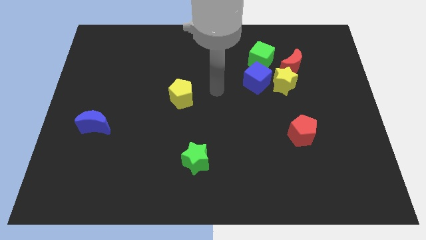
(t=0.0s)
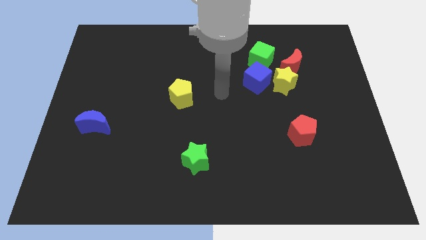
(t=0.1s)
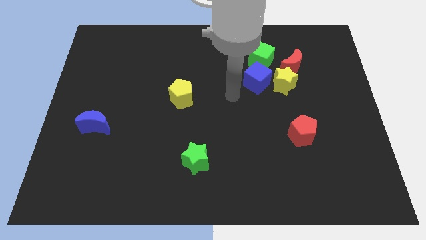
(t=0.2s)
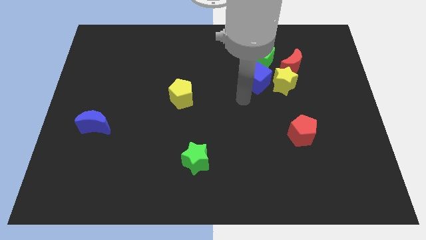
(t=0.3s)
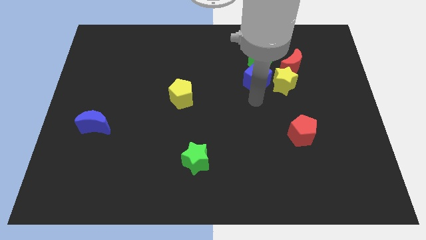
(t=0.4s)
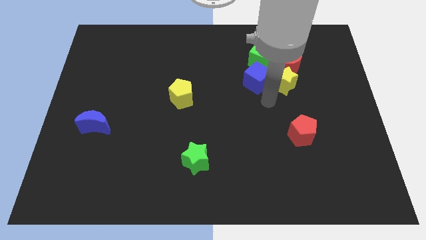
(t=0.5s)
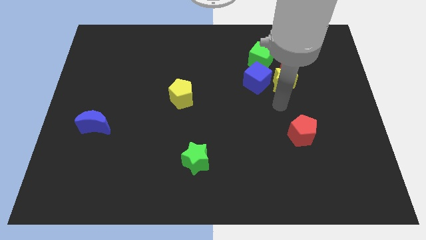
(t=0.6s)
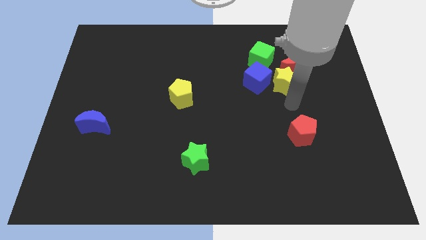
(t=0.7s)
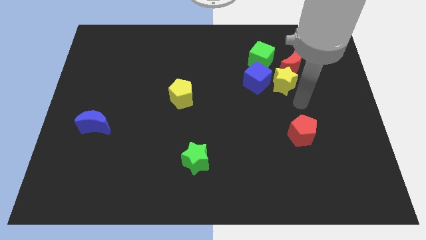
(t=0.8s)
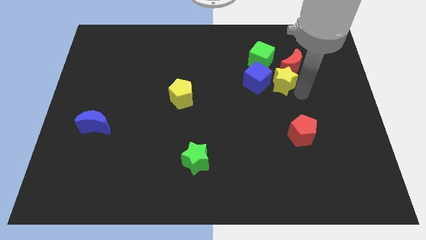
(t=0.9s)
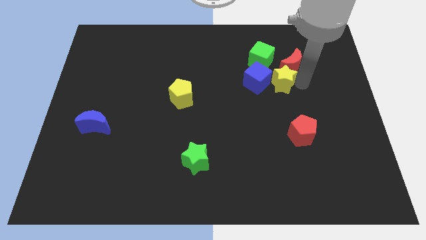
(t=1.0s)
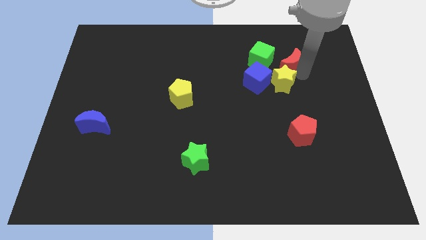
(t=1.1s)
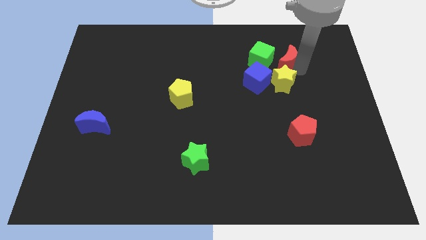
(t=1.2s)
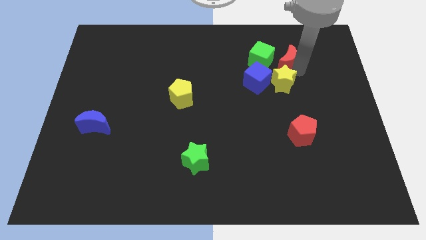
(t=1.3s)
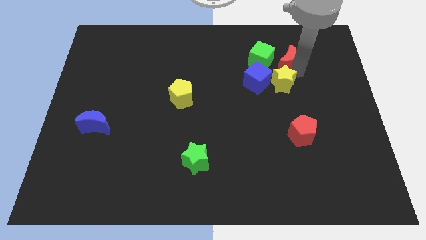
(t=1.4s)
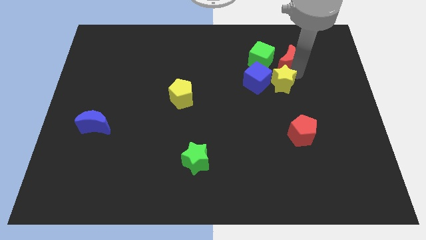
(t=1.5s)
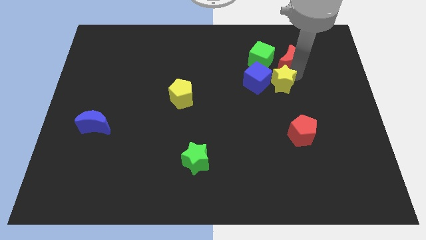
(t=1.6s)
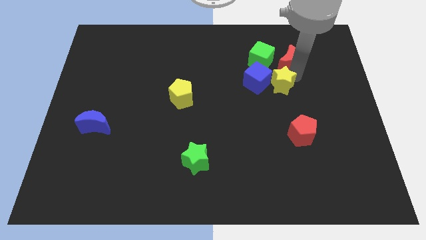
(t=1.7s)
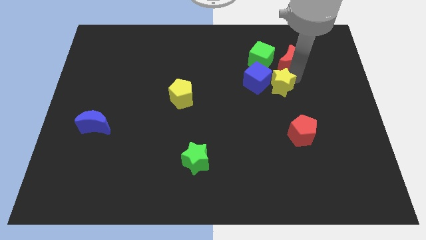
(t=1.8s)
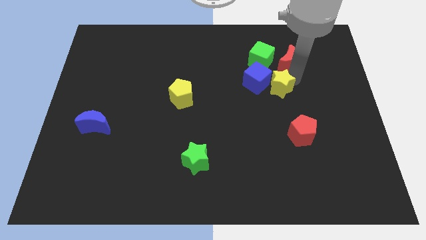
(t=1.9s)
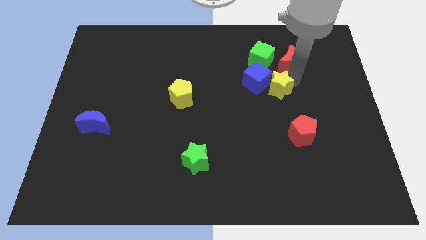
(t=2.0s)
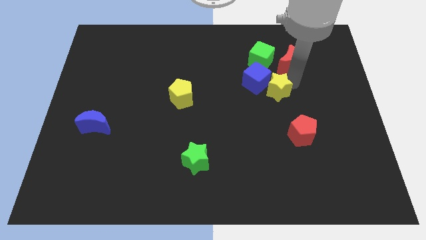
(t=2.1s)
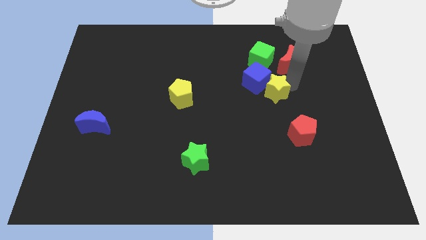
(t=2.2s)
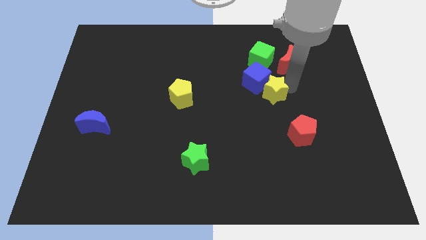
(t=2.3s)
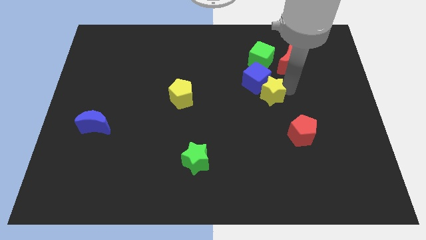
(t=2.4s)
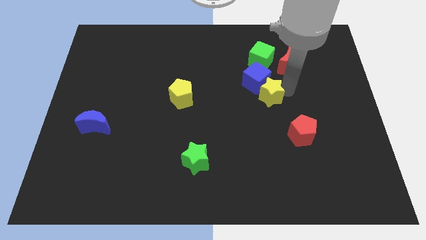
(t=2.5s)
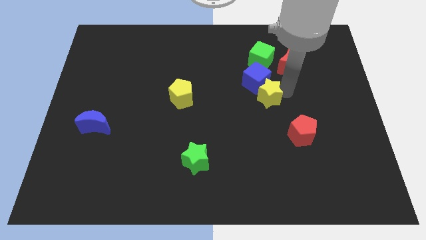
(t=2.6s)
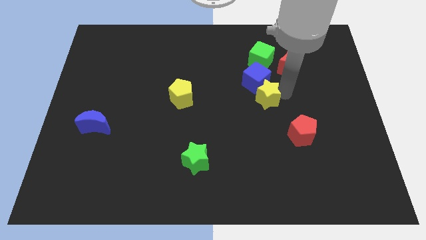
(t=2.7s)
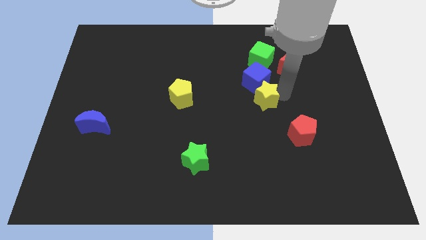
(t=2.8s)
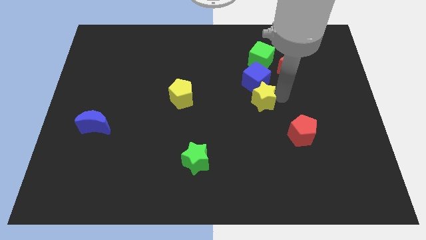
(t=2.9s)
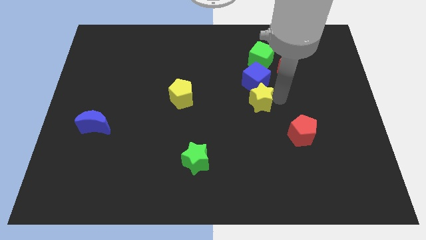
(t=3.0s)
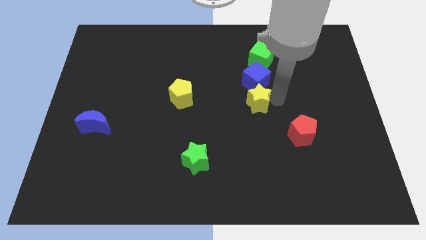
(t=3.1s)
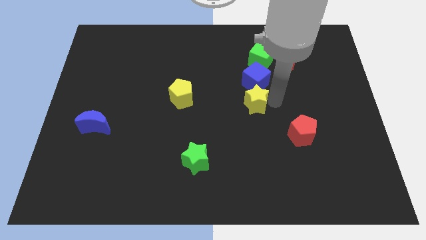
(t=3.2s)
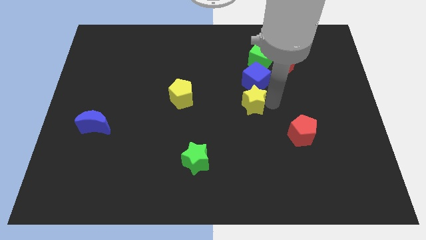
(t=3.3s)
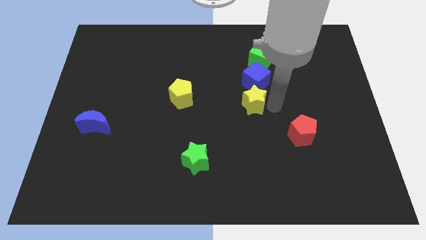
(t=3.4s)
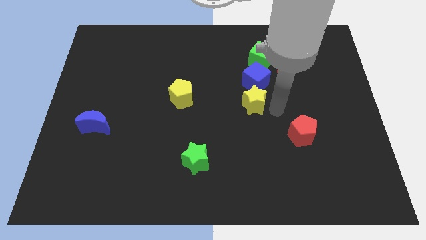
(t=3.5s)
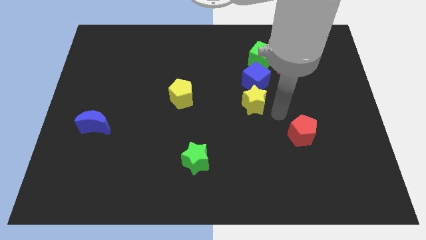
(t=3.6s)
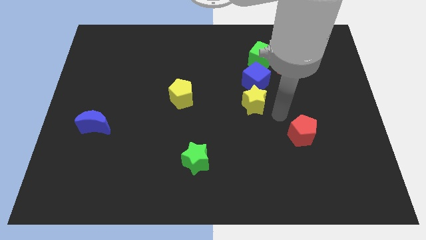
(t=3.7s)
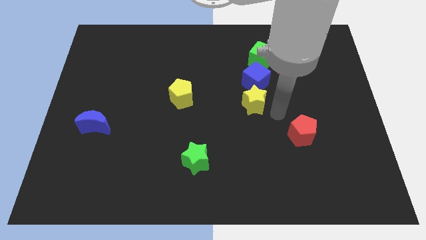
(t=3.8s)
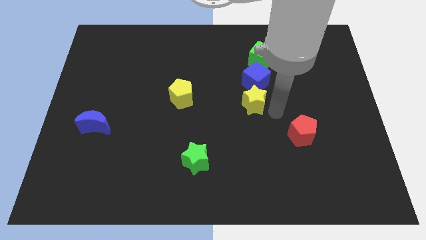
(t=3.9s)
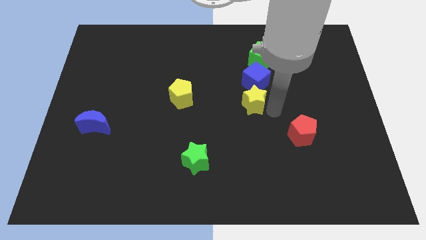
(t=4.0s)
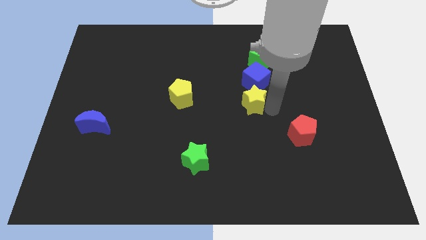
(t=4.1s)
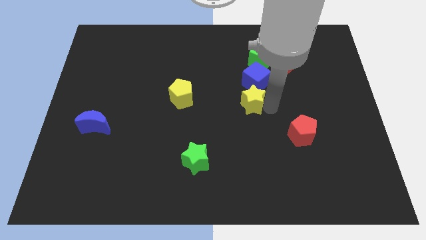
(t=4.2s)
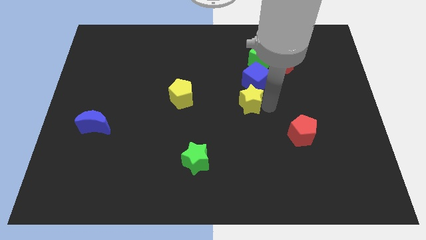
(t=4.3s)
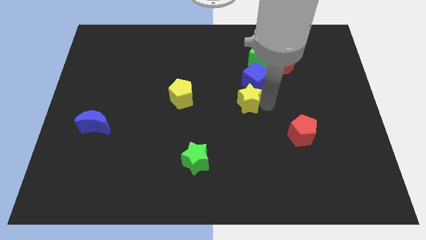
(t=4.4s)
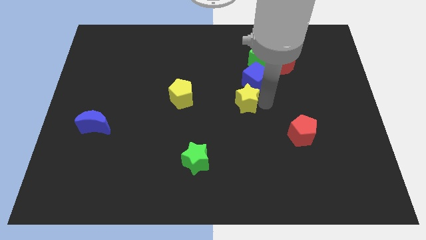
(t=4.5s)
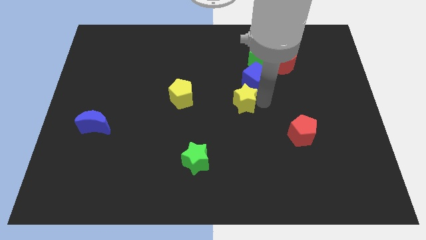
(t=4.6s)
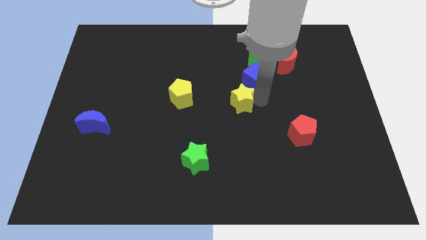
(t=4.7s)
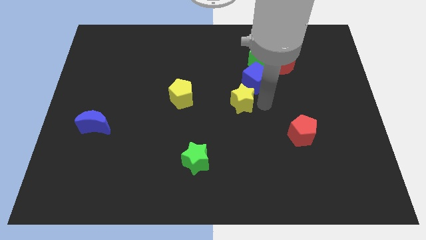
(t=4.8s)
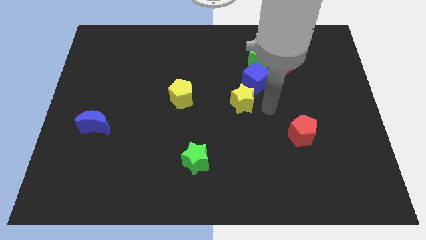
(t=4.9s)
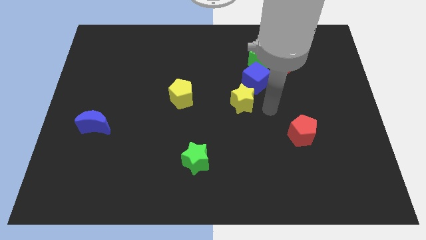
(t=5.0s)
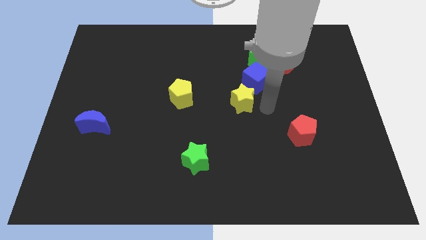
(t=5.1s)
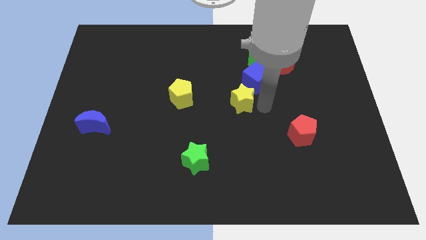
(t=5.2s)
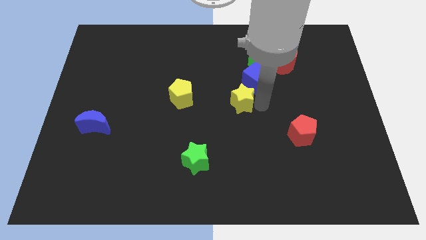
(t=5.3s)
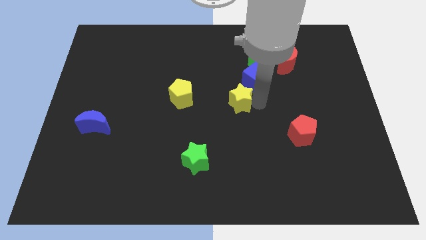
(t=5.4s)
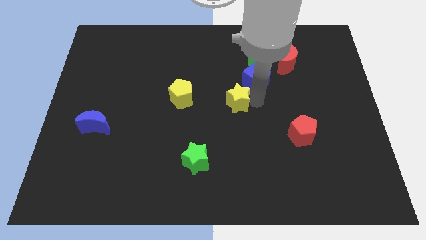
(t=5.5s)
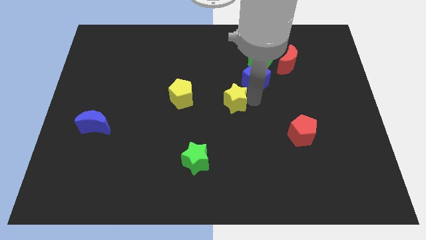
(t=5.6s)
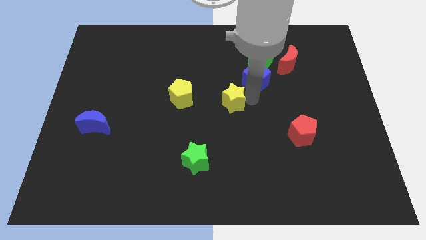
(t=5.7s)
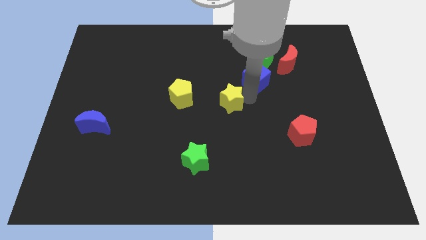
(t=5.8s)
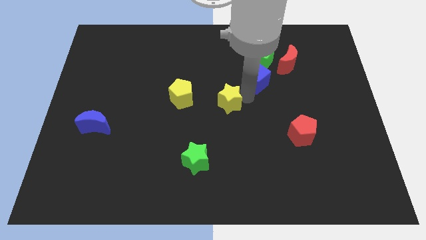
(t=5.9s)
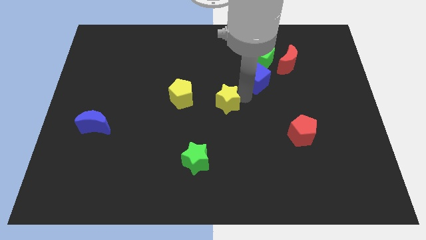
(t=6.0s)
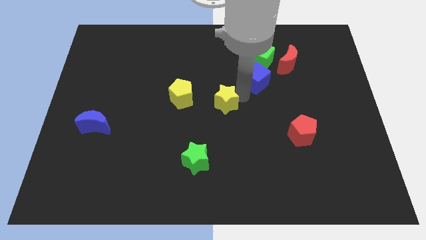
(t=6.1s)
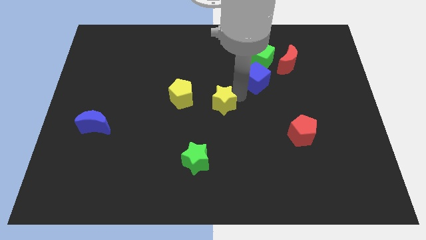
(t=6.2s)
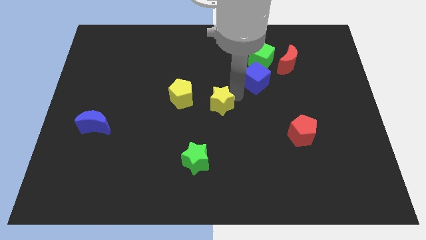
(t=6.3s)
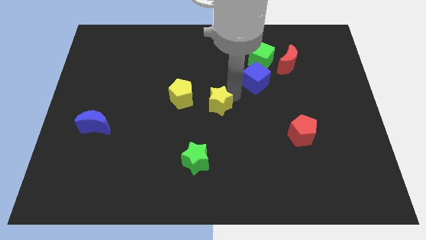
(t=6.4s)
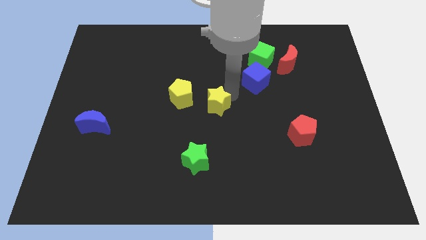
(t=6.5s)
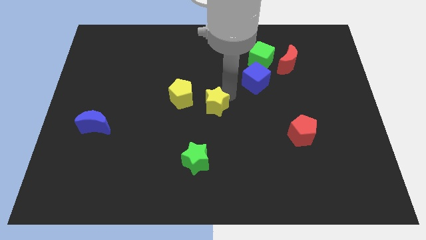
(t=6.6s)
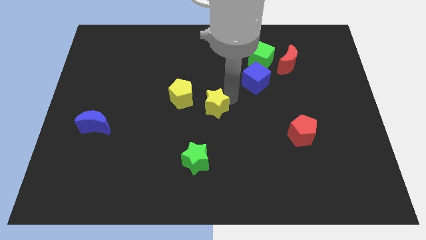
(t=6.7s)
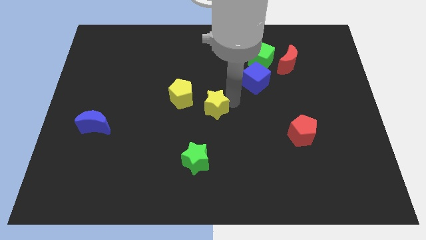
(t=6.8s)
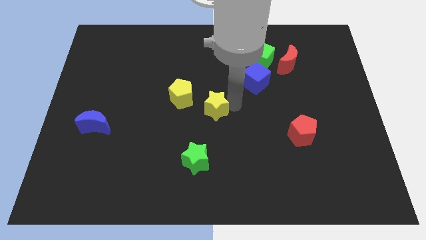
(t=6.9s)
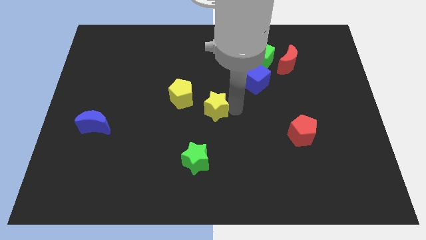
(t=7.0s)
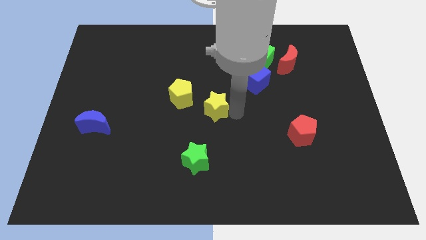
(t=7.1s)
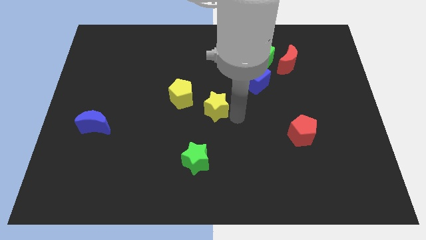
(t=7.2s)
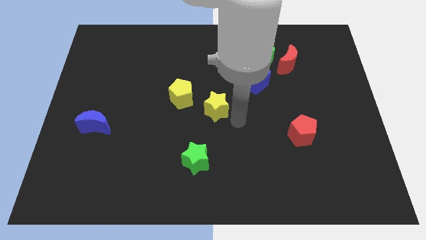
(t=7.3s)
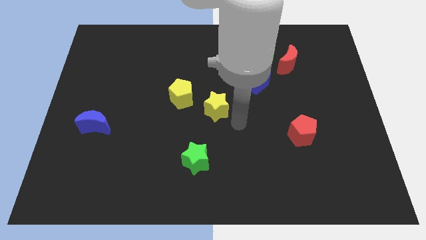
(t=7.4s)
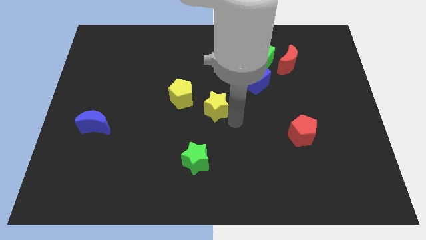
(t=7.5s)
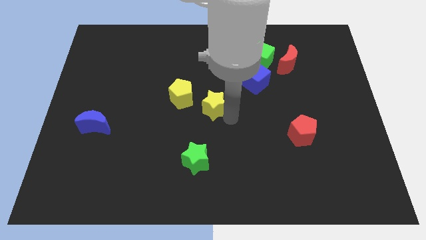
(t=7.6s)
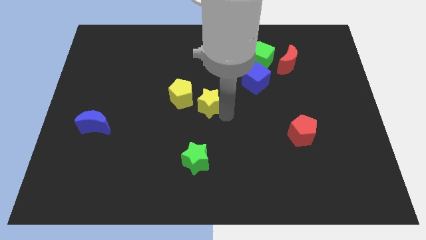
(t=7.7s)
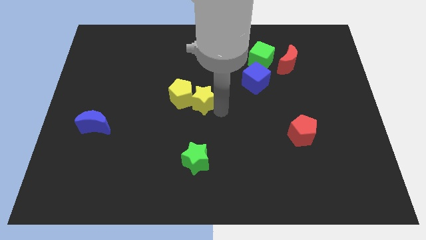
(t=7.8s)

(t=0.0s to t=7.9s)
push the yellow star to the yellow pentagon
